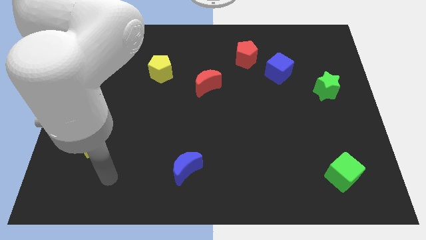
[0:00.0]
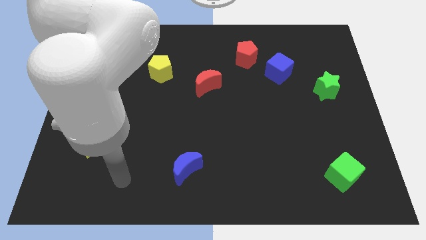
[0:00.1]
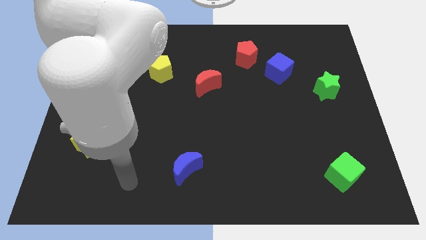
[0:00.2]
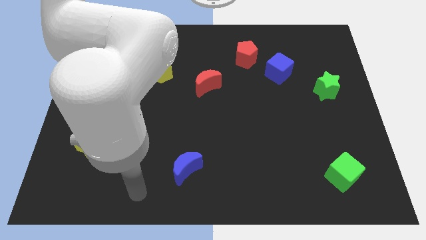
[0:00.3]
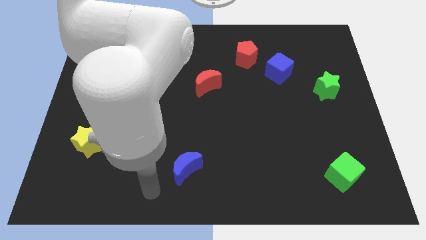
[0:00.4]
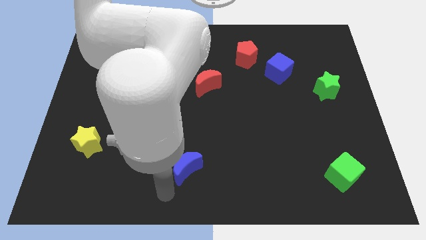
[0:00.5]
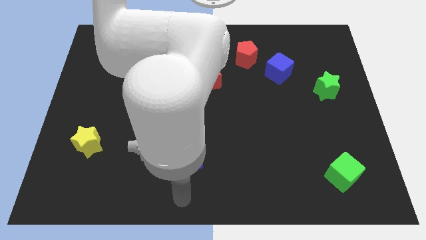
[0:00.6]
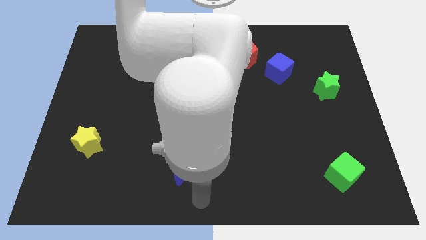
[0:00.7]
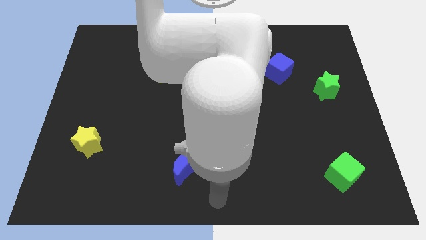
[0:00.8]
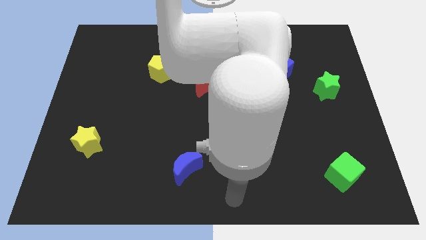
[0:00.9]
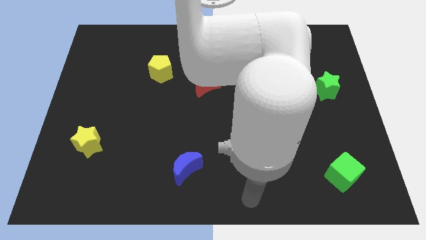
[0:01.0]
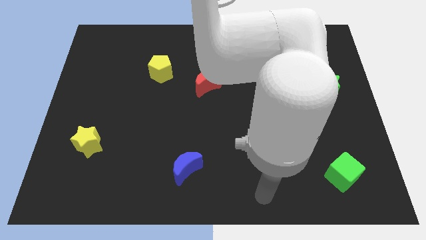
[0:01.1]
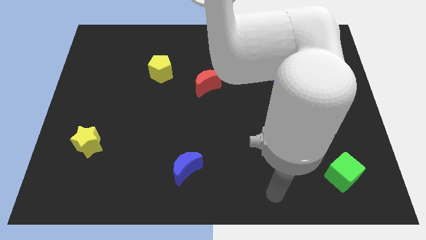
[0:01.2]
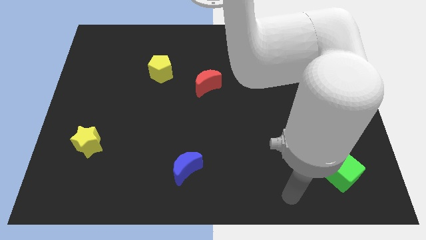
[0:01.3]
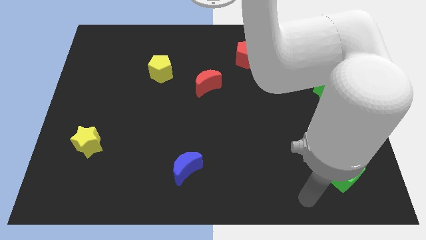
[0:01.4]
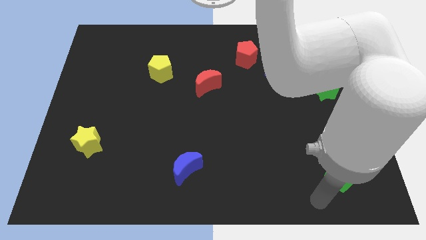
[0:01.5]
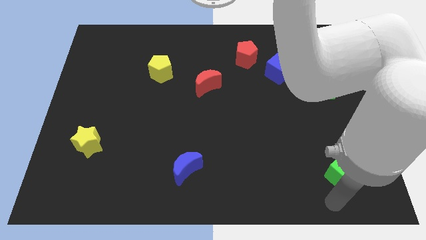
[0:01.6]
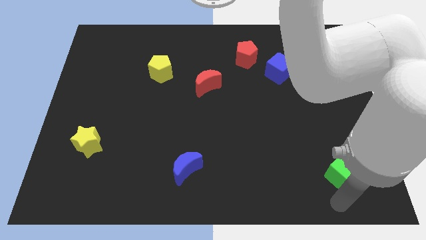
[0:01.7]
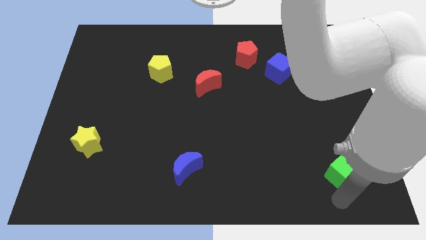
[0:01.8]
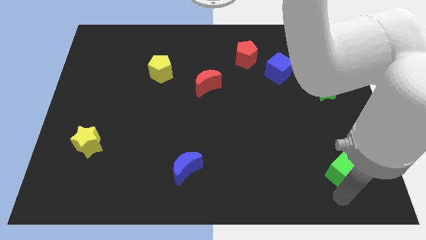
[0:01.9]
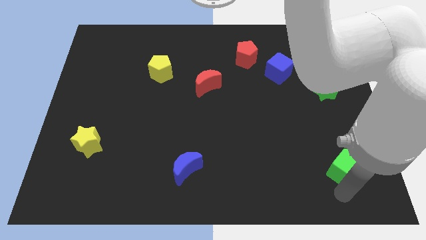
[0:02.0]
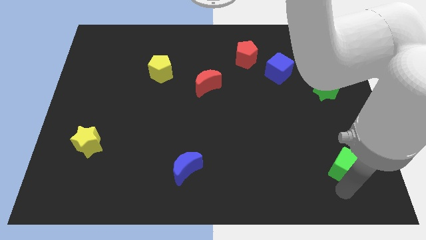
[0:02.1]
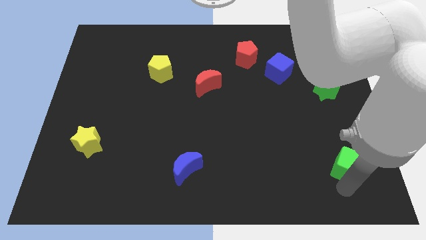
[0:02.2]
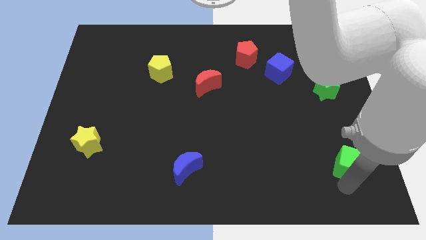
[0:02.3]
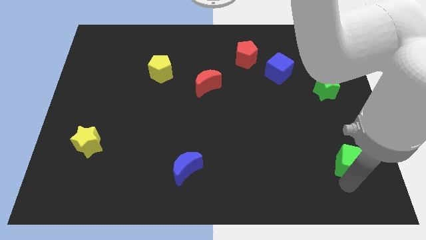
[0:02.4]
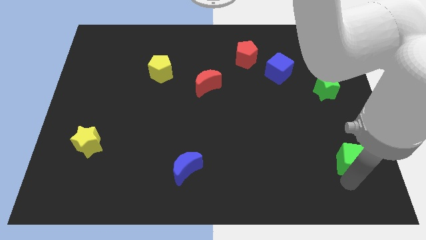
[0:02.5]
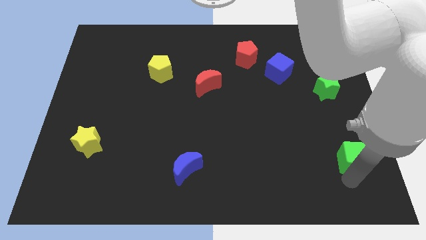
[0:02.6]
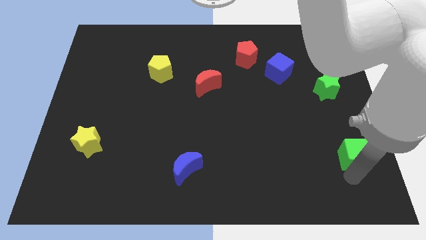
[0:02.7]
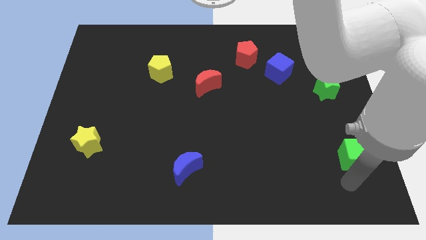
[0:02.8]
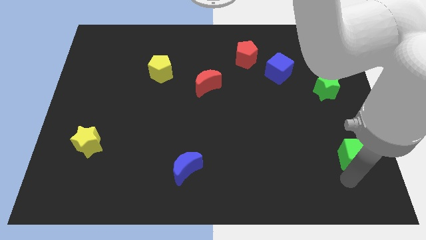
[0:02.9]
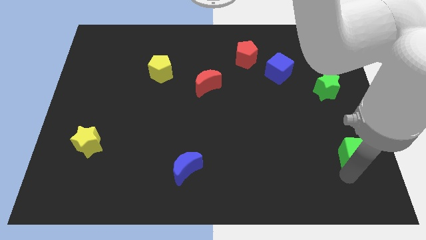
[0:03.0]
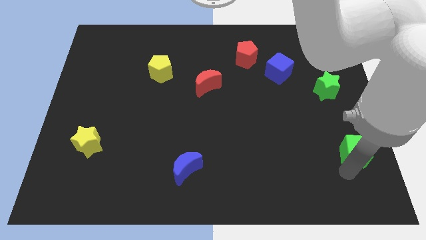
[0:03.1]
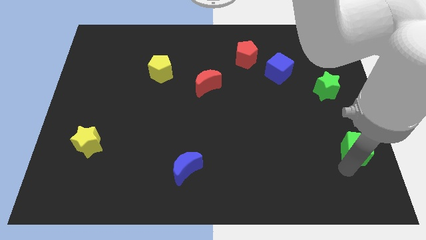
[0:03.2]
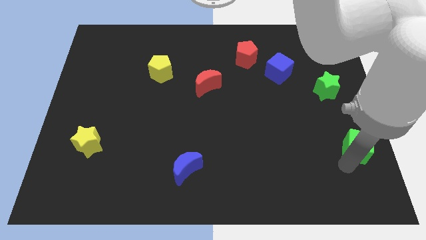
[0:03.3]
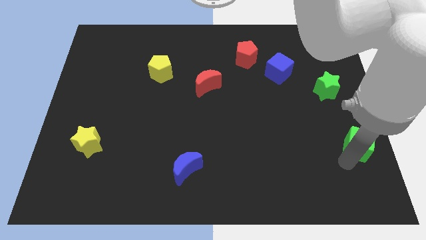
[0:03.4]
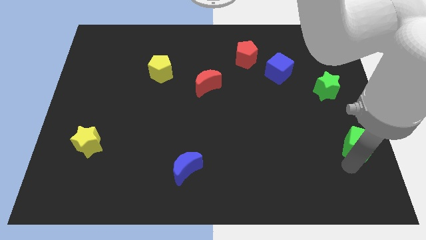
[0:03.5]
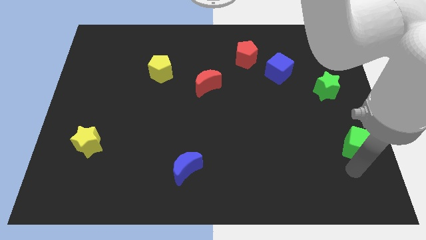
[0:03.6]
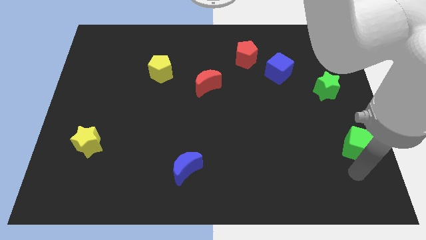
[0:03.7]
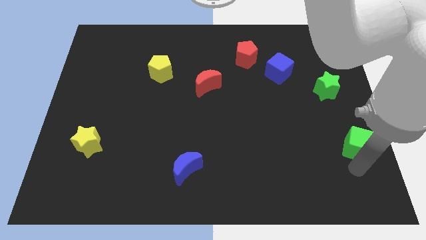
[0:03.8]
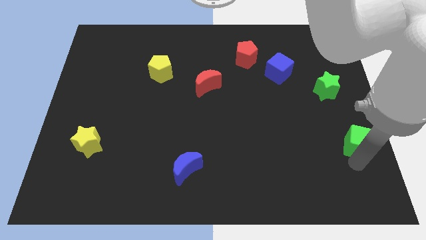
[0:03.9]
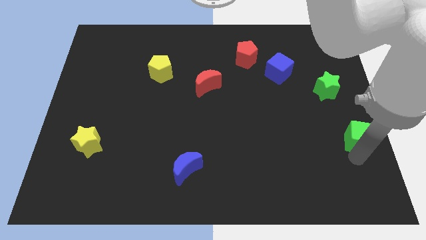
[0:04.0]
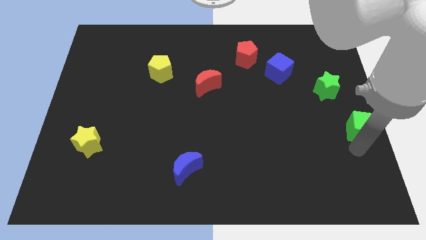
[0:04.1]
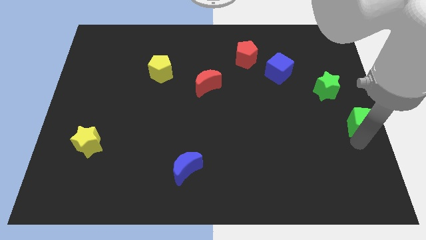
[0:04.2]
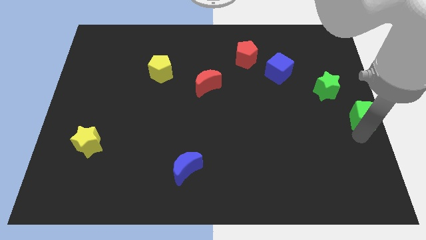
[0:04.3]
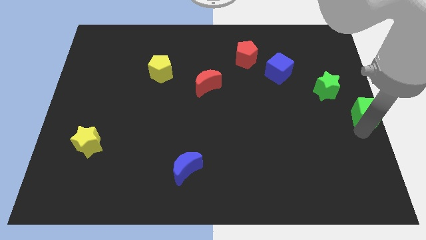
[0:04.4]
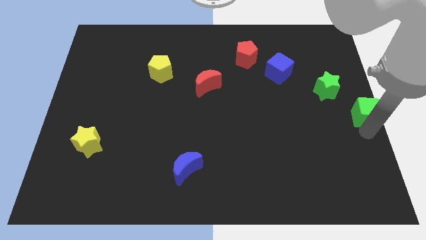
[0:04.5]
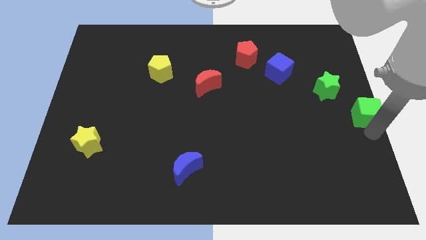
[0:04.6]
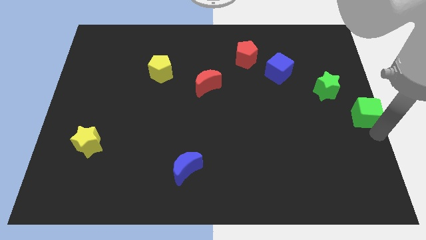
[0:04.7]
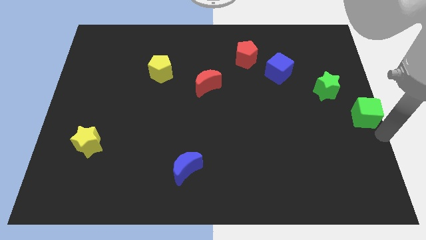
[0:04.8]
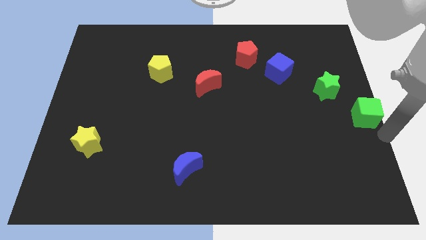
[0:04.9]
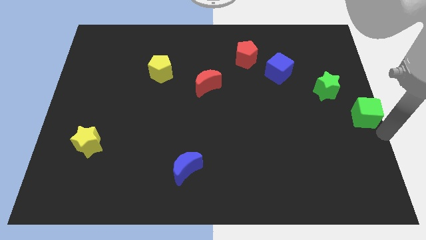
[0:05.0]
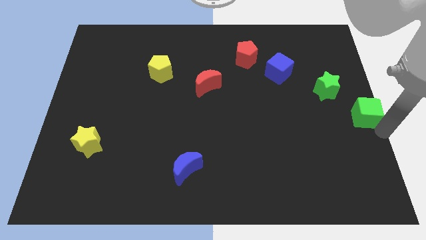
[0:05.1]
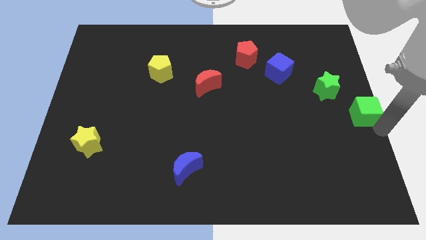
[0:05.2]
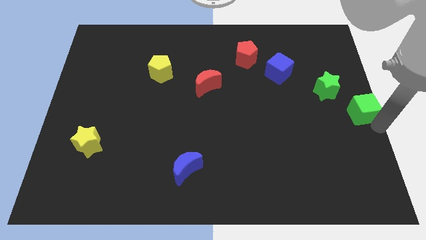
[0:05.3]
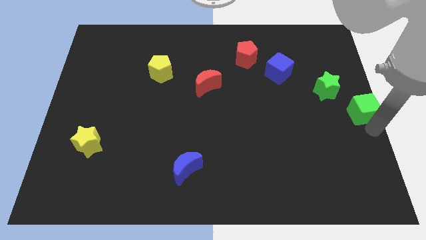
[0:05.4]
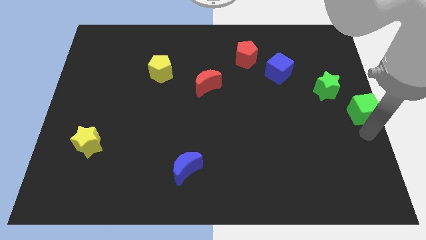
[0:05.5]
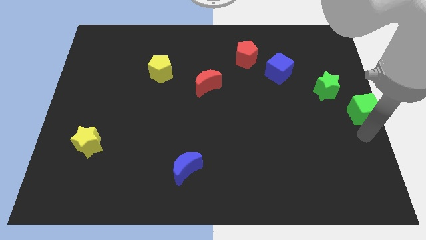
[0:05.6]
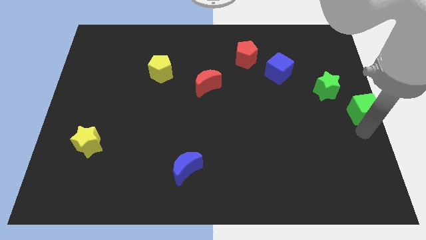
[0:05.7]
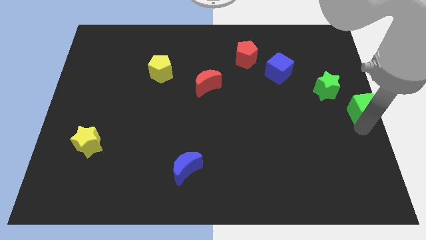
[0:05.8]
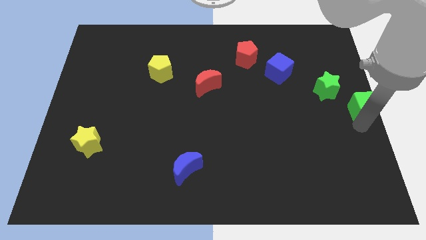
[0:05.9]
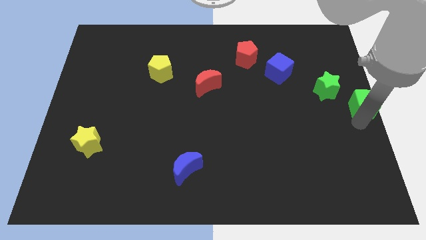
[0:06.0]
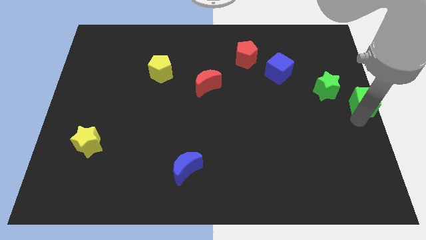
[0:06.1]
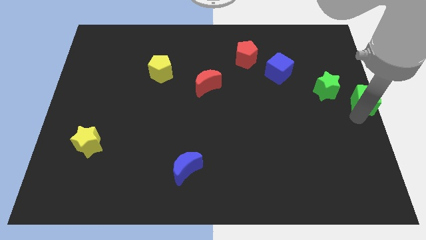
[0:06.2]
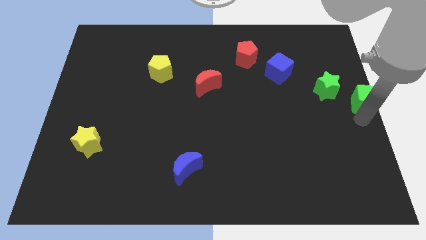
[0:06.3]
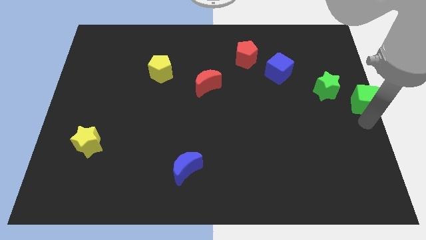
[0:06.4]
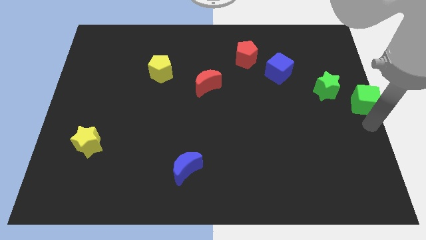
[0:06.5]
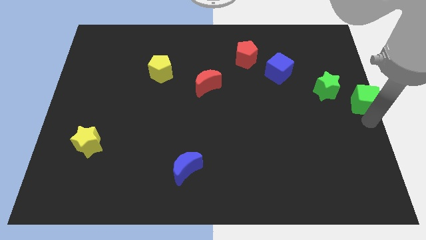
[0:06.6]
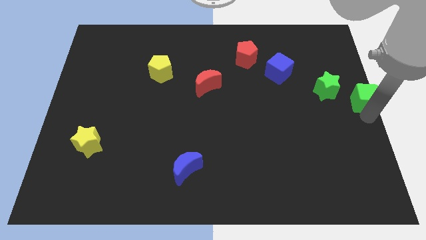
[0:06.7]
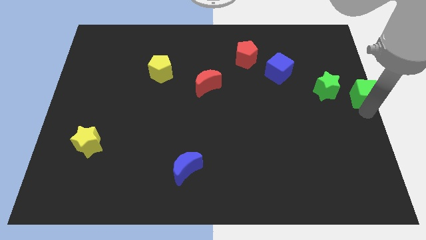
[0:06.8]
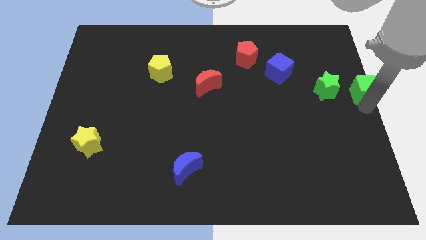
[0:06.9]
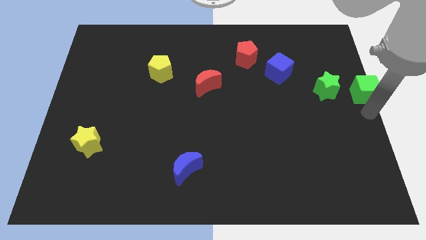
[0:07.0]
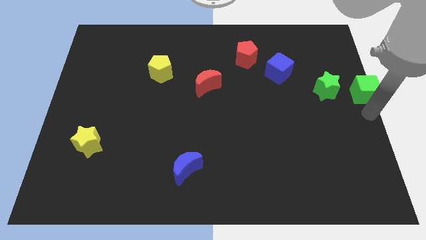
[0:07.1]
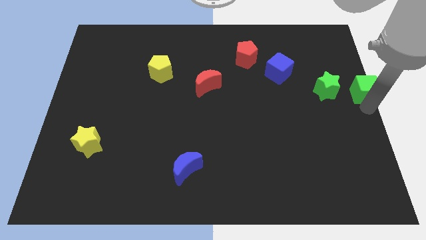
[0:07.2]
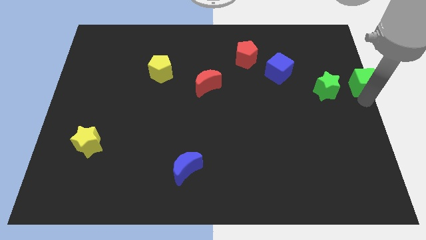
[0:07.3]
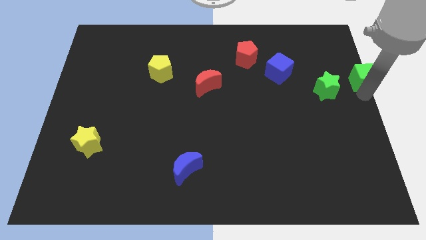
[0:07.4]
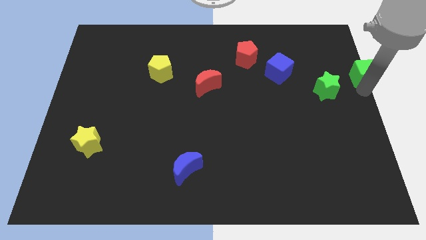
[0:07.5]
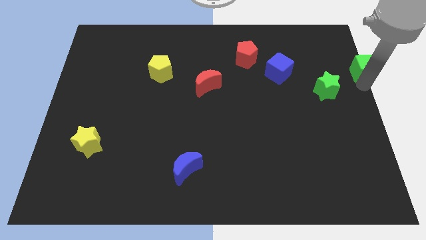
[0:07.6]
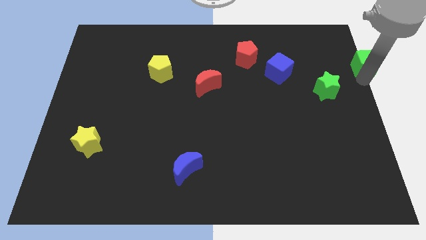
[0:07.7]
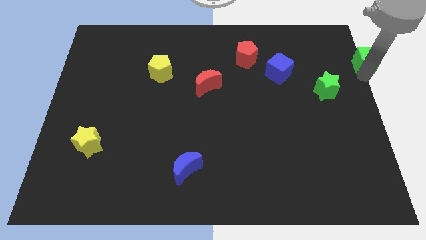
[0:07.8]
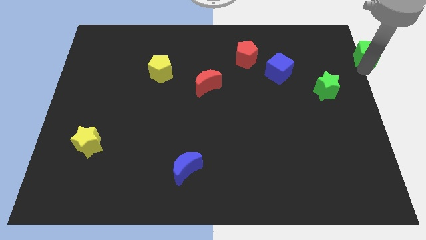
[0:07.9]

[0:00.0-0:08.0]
push the green cube to the top right

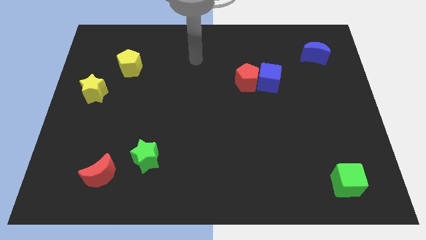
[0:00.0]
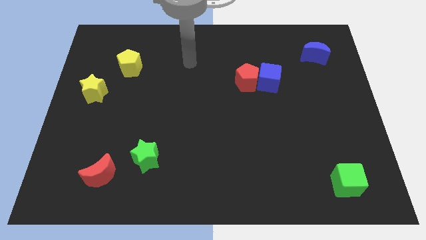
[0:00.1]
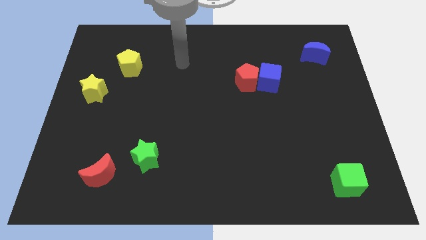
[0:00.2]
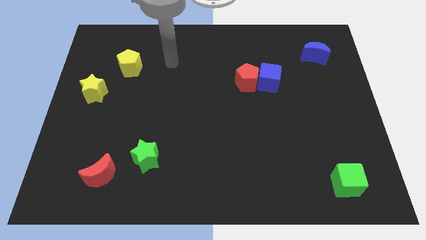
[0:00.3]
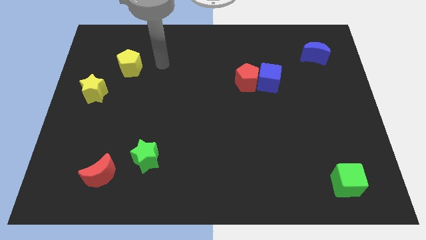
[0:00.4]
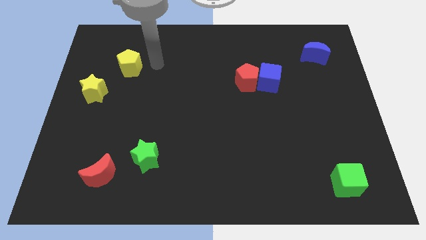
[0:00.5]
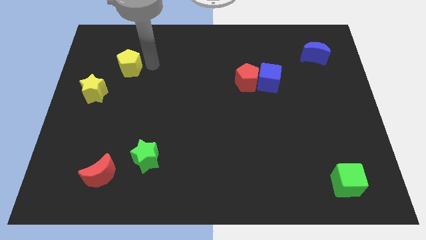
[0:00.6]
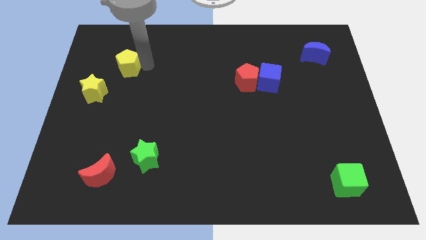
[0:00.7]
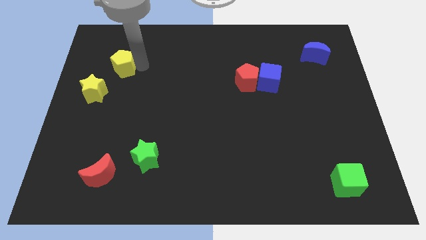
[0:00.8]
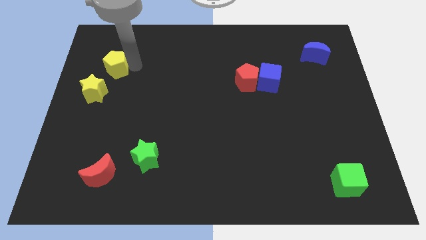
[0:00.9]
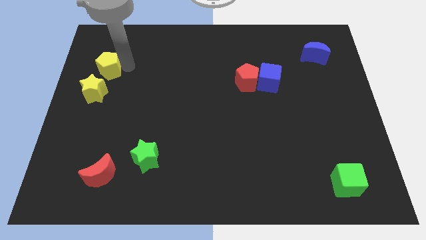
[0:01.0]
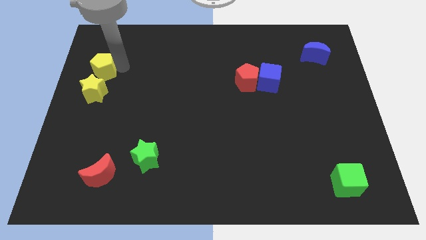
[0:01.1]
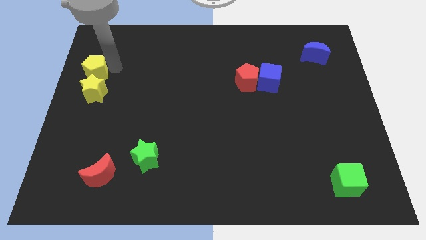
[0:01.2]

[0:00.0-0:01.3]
push the yellow pentagon to the left side of the board
